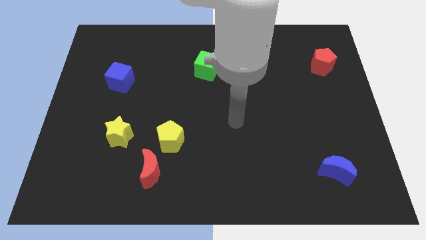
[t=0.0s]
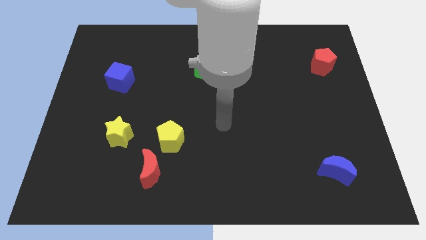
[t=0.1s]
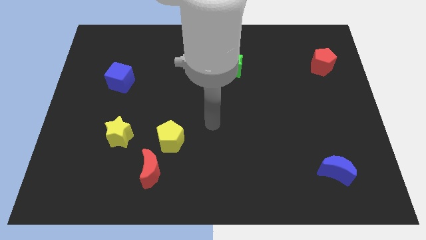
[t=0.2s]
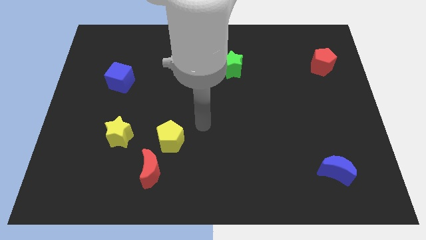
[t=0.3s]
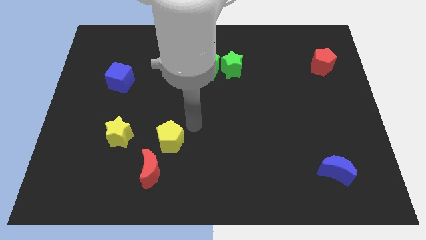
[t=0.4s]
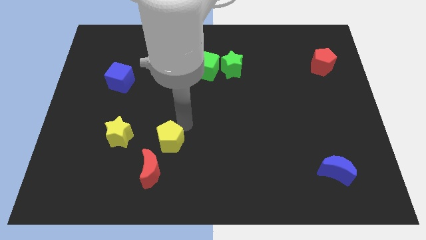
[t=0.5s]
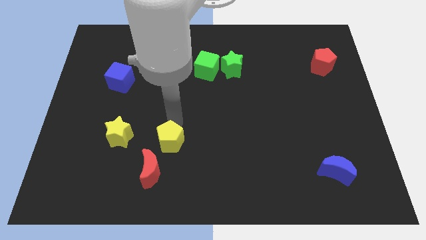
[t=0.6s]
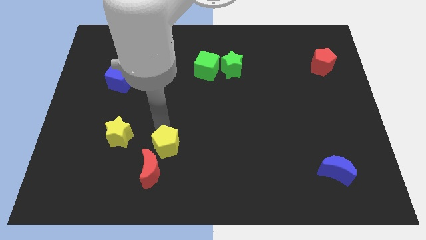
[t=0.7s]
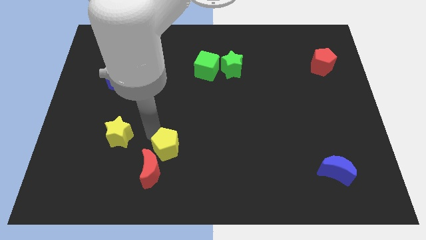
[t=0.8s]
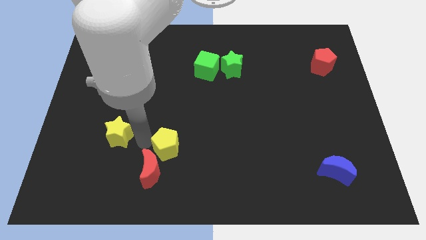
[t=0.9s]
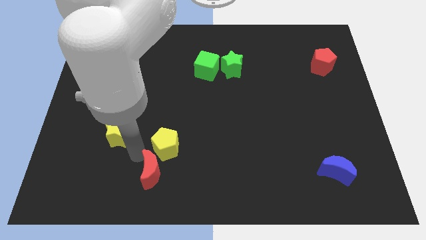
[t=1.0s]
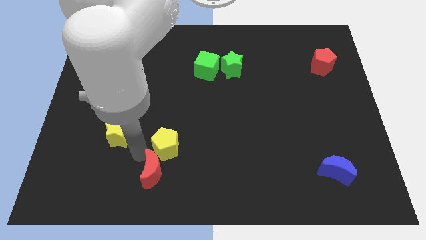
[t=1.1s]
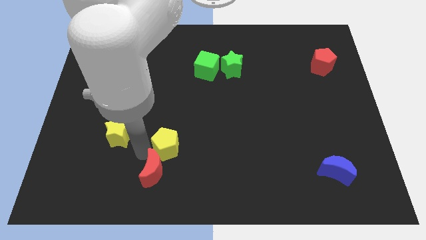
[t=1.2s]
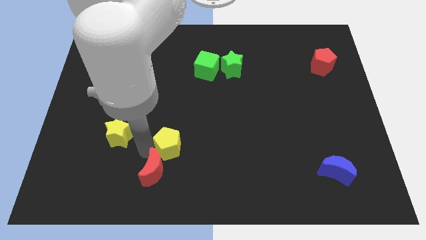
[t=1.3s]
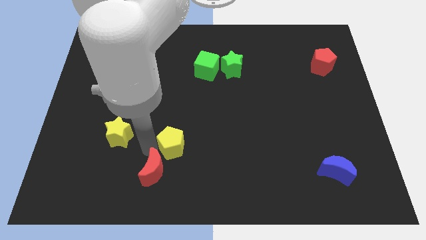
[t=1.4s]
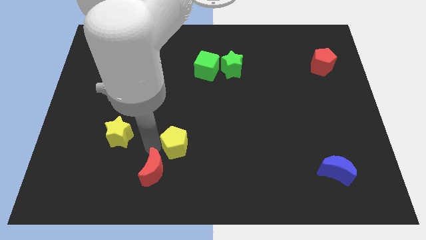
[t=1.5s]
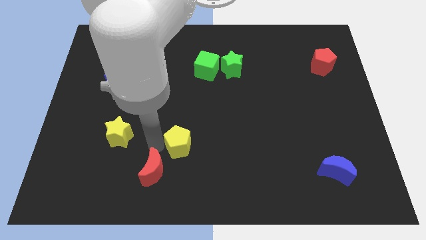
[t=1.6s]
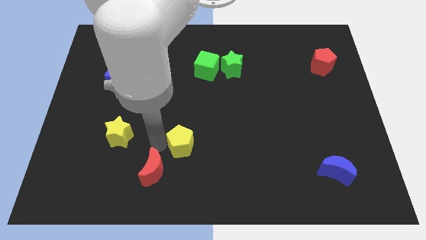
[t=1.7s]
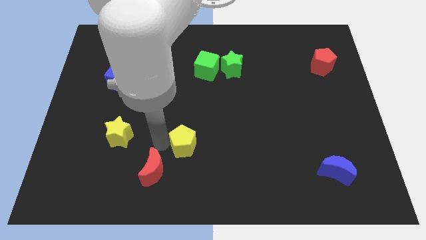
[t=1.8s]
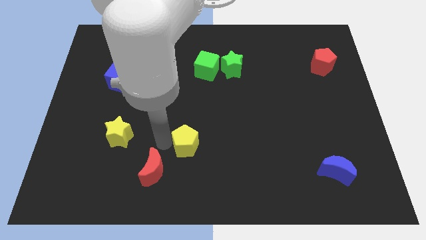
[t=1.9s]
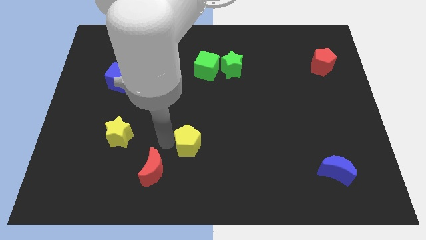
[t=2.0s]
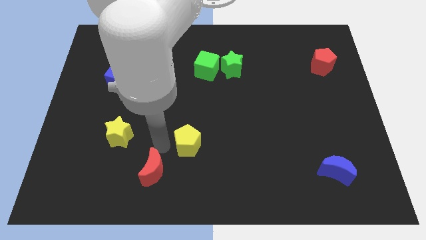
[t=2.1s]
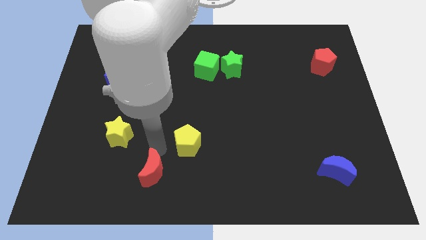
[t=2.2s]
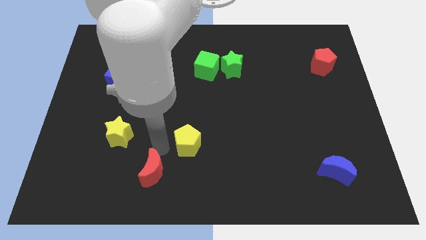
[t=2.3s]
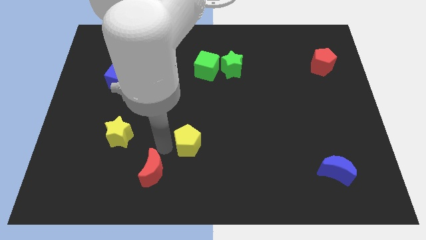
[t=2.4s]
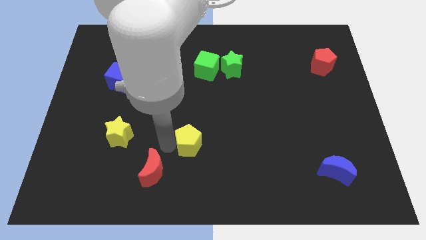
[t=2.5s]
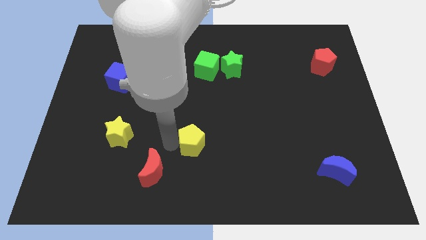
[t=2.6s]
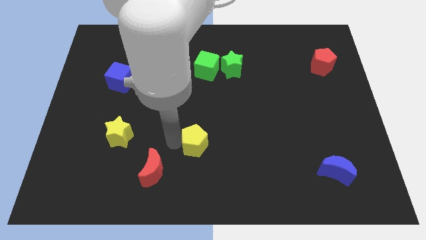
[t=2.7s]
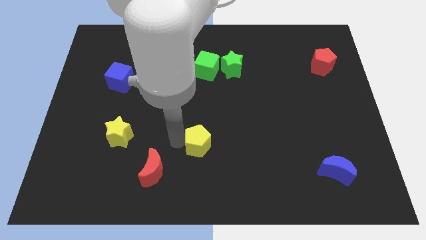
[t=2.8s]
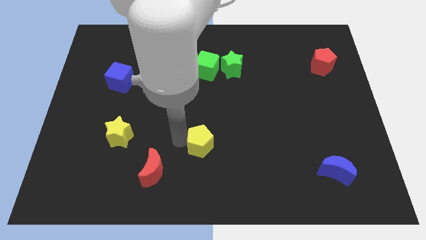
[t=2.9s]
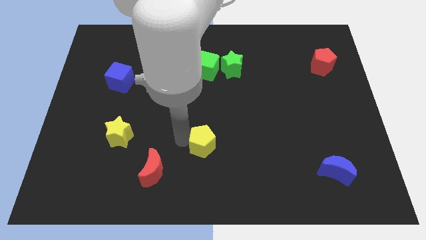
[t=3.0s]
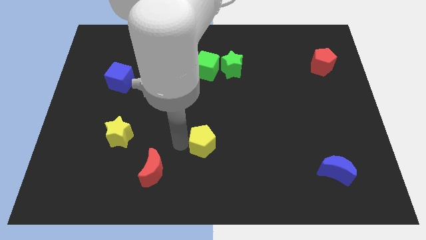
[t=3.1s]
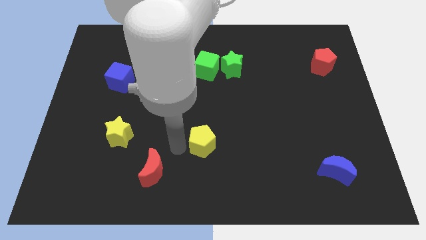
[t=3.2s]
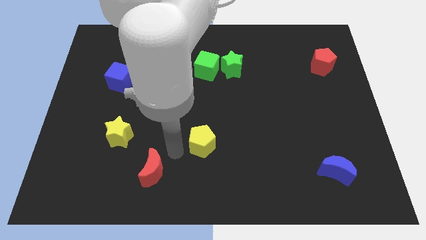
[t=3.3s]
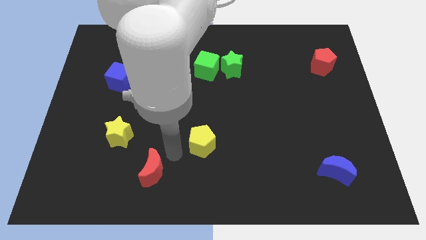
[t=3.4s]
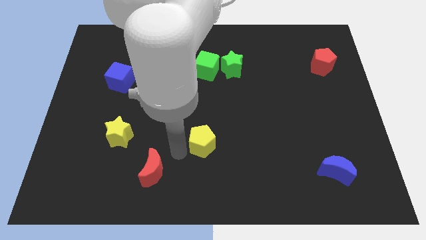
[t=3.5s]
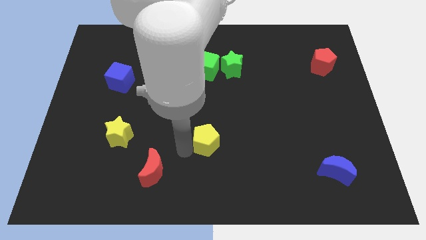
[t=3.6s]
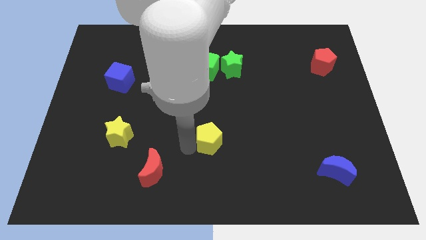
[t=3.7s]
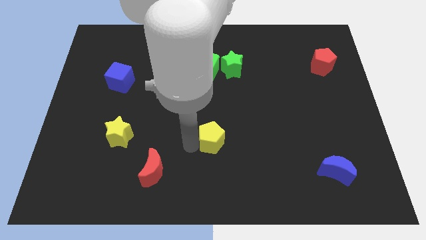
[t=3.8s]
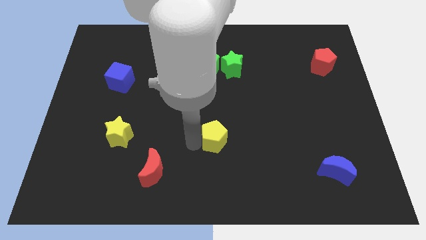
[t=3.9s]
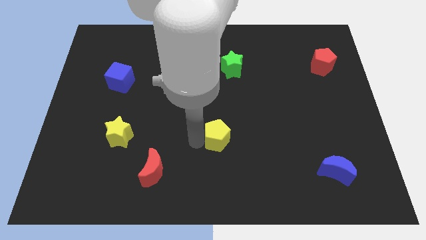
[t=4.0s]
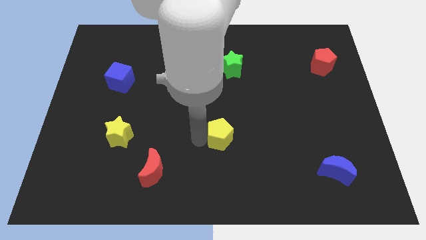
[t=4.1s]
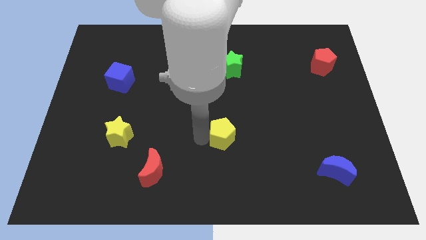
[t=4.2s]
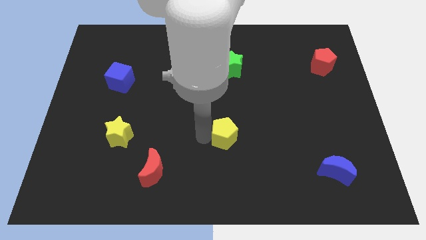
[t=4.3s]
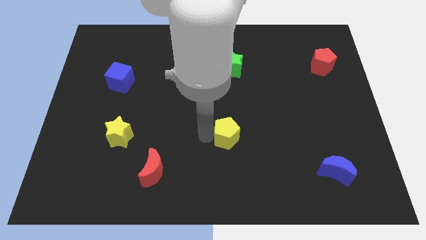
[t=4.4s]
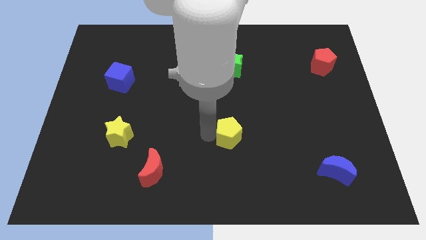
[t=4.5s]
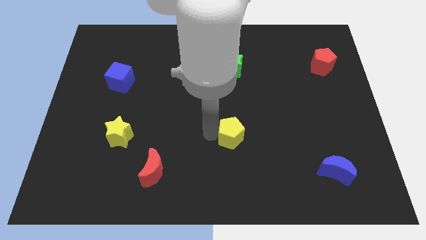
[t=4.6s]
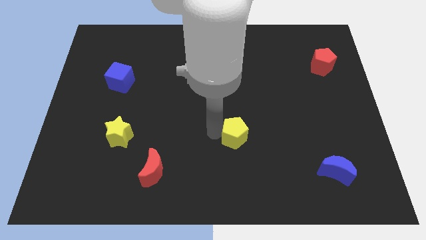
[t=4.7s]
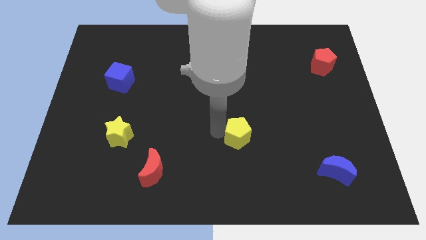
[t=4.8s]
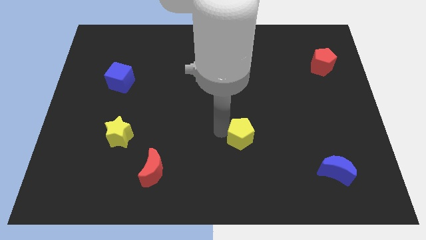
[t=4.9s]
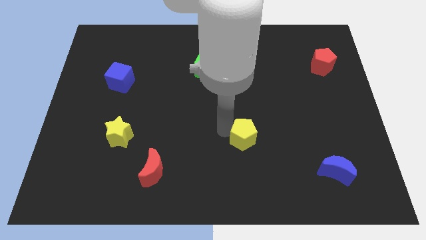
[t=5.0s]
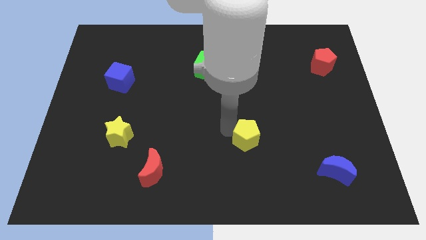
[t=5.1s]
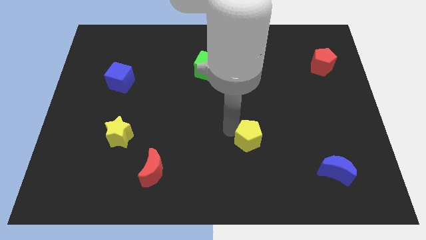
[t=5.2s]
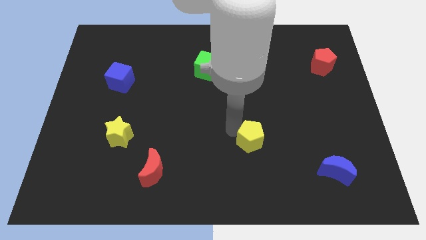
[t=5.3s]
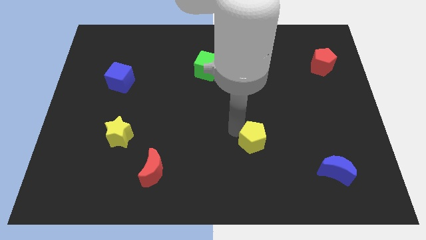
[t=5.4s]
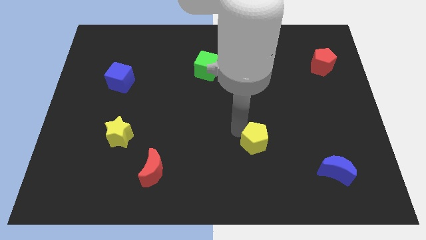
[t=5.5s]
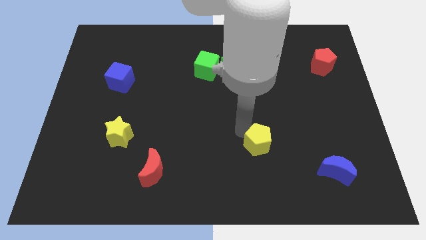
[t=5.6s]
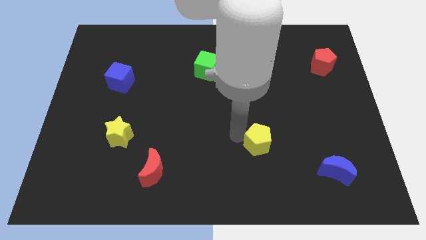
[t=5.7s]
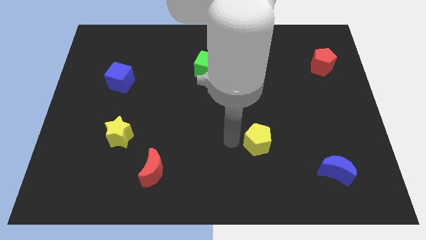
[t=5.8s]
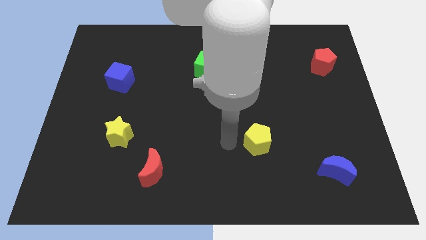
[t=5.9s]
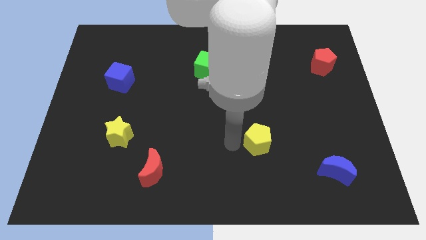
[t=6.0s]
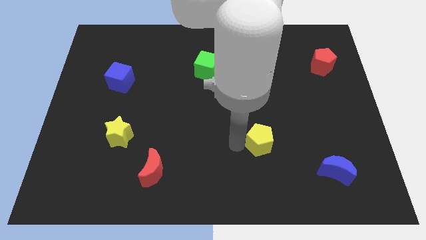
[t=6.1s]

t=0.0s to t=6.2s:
slide the yellow pentagon right

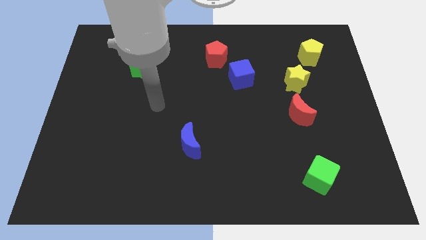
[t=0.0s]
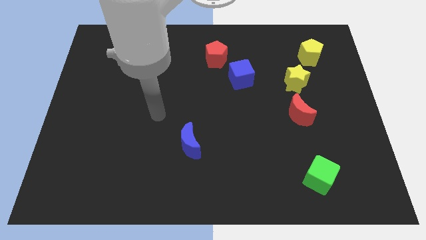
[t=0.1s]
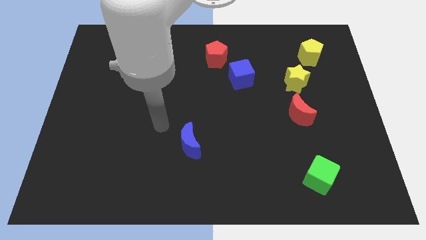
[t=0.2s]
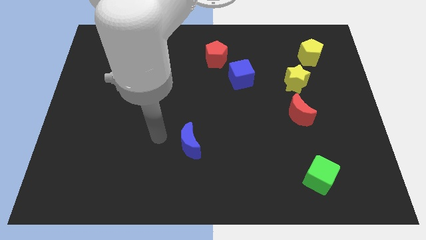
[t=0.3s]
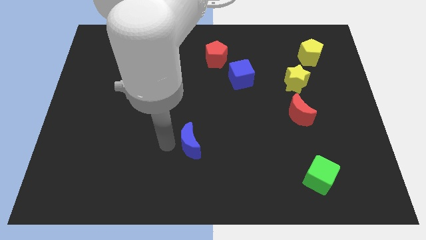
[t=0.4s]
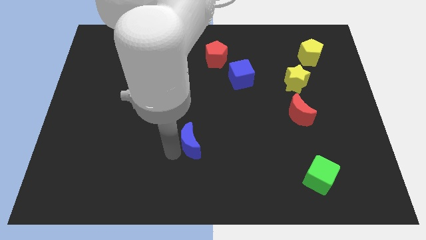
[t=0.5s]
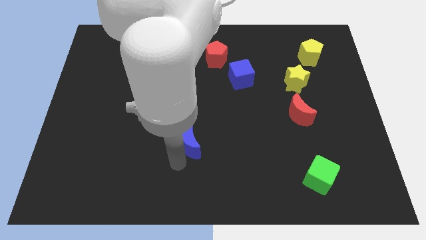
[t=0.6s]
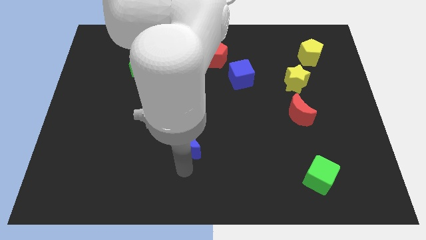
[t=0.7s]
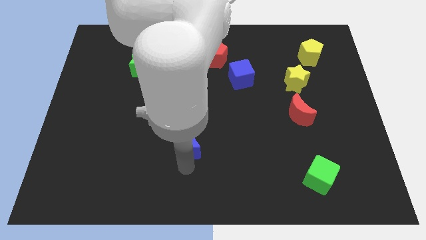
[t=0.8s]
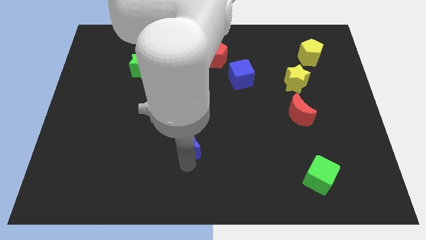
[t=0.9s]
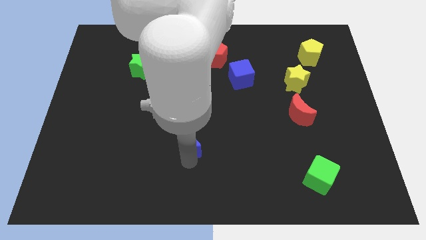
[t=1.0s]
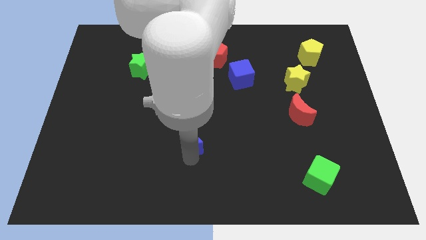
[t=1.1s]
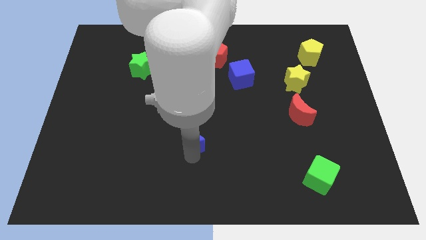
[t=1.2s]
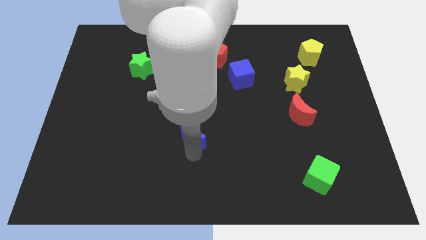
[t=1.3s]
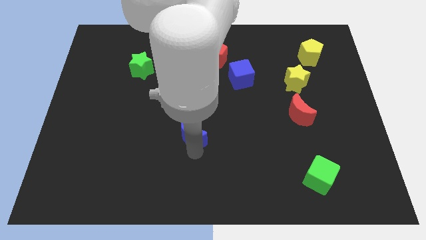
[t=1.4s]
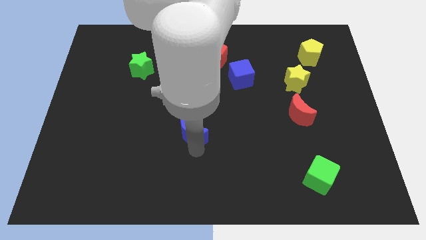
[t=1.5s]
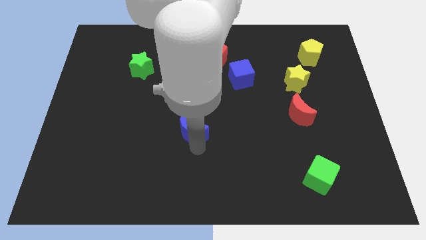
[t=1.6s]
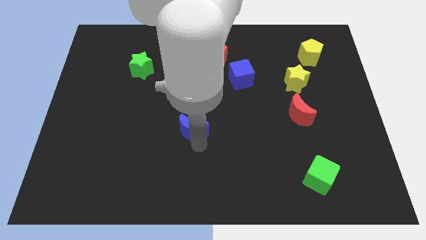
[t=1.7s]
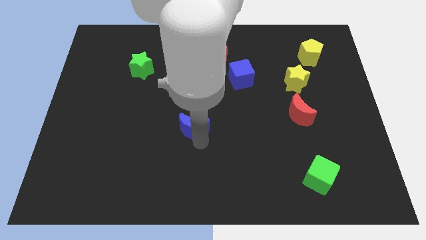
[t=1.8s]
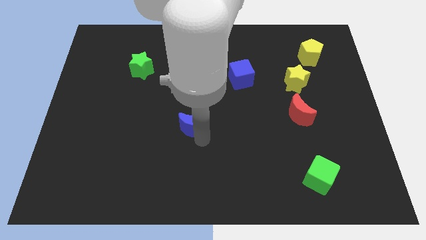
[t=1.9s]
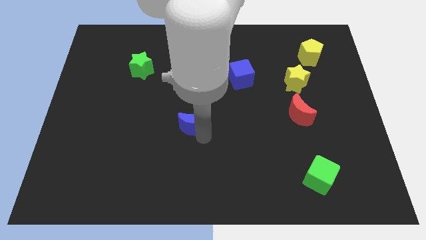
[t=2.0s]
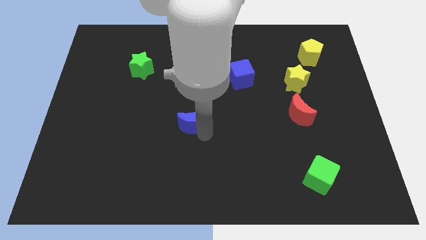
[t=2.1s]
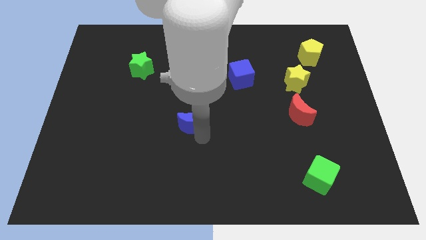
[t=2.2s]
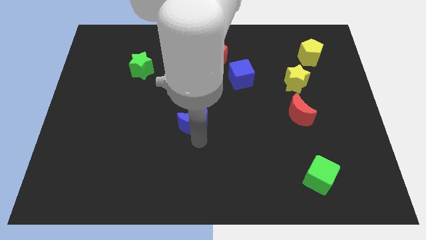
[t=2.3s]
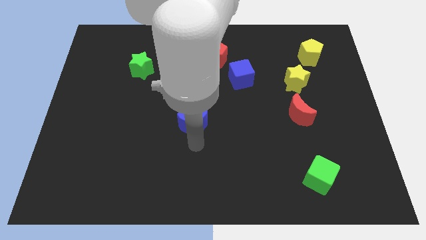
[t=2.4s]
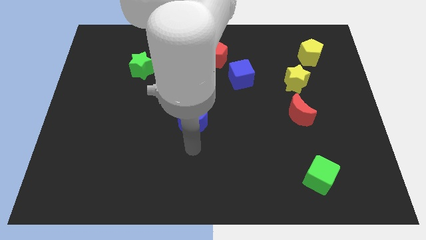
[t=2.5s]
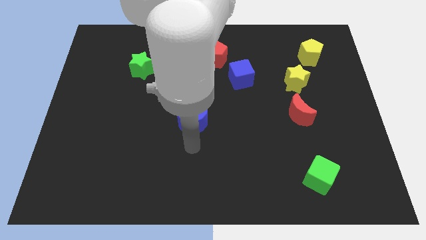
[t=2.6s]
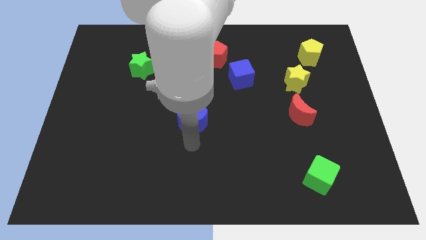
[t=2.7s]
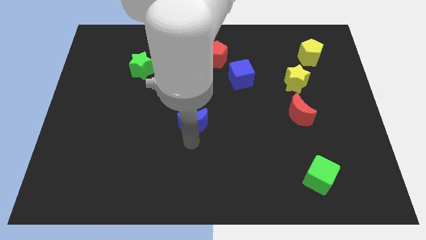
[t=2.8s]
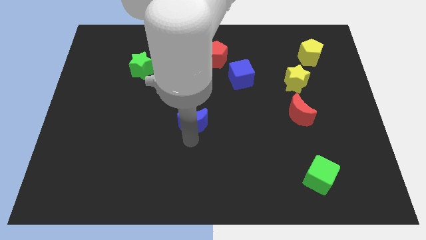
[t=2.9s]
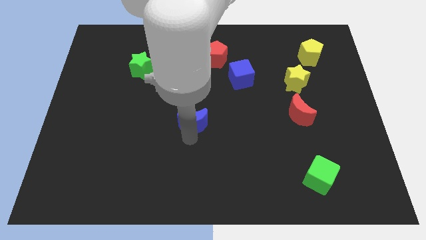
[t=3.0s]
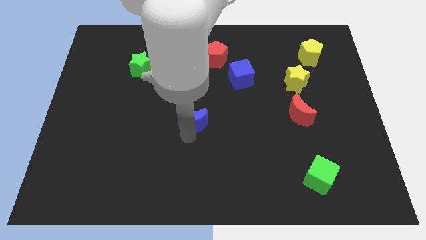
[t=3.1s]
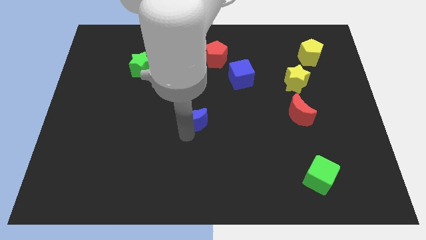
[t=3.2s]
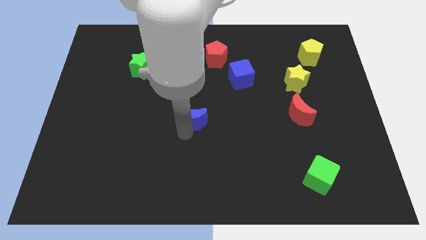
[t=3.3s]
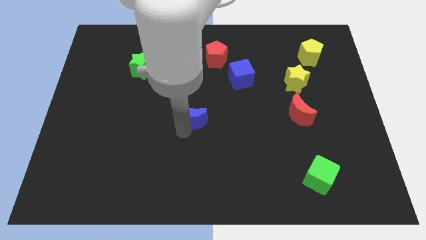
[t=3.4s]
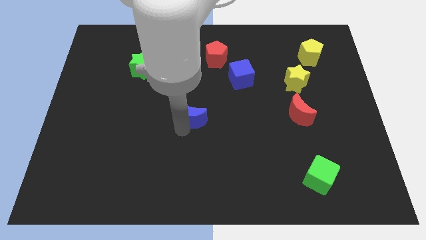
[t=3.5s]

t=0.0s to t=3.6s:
slightly push the blue moon up
